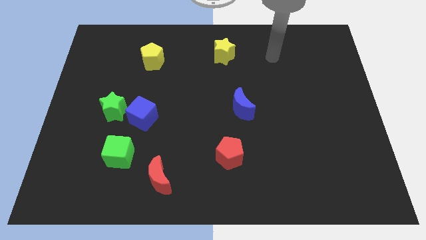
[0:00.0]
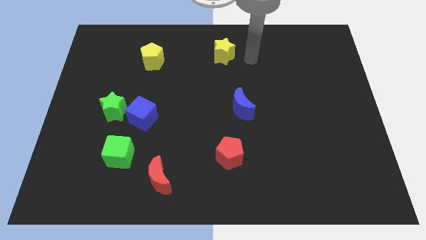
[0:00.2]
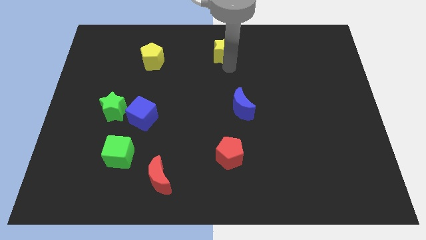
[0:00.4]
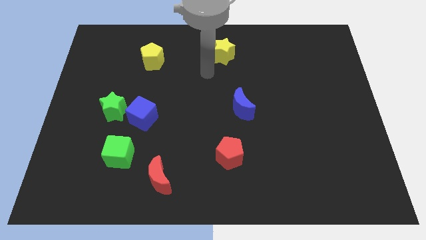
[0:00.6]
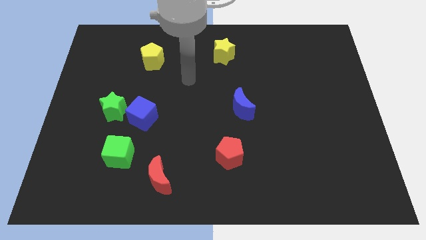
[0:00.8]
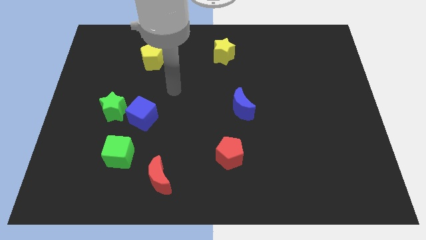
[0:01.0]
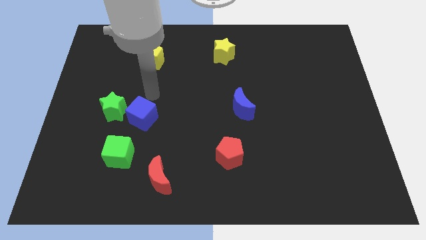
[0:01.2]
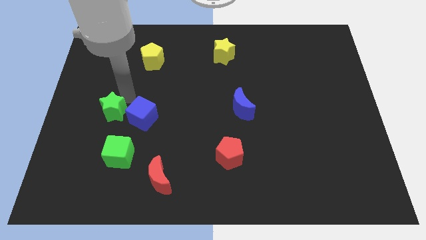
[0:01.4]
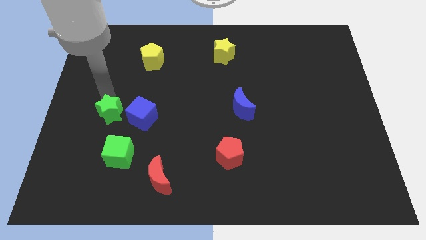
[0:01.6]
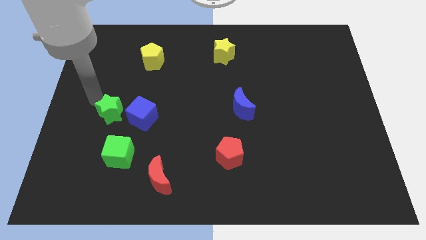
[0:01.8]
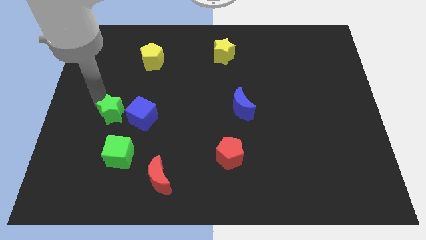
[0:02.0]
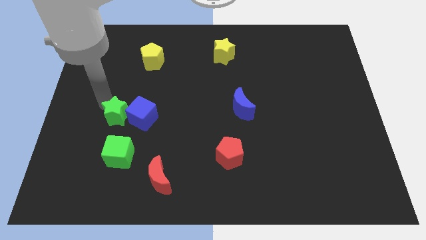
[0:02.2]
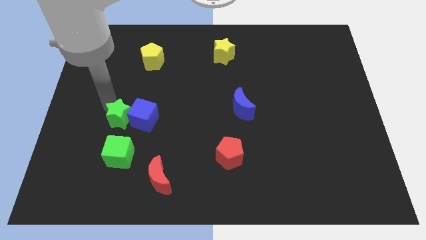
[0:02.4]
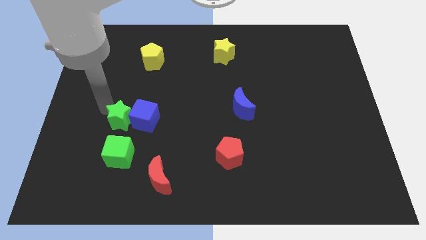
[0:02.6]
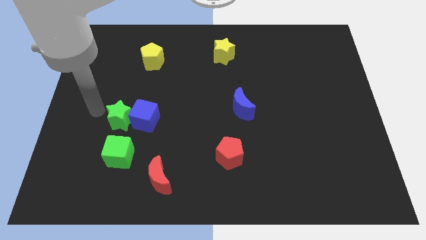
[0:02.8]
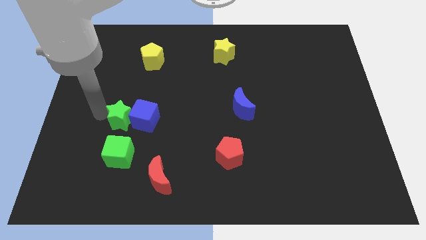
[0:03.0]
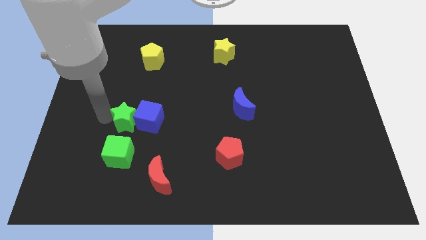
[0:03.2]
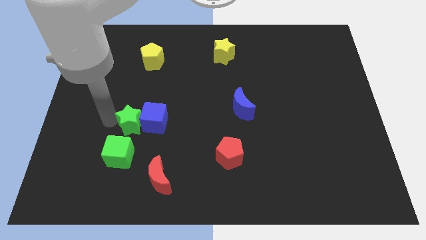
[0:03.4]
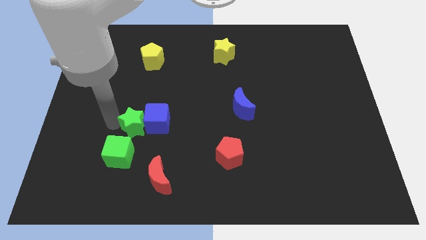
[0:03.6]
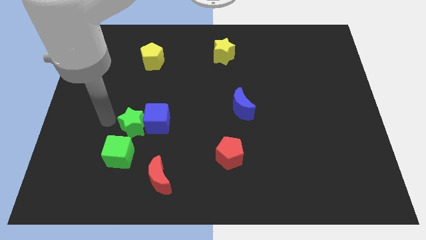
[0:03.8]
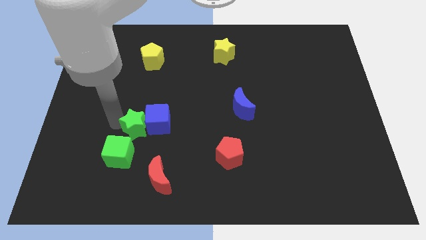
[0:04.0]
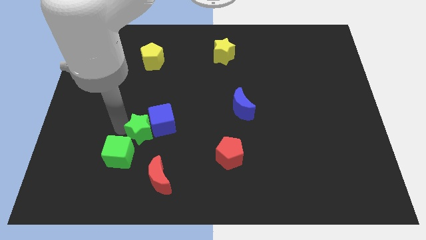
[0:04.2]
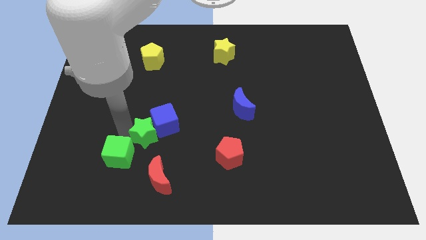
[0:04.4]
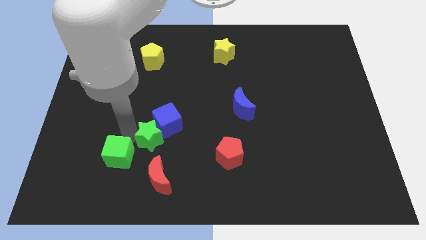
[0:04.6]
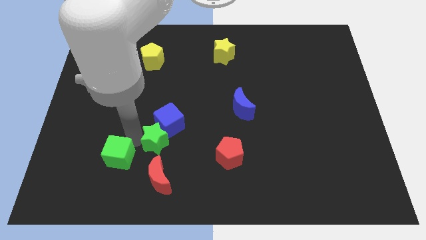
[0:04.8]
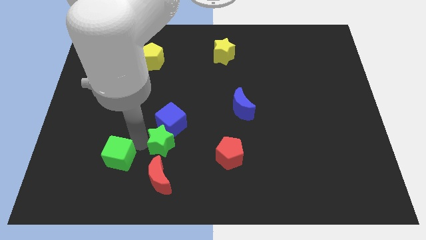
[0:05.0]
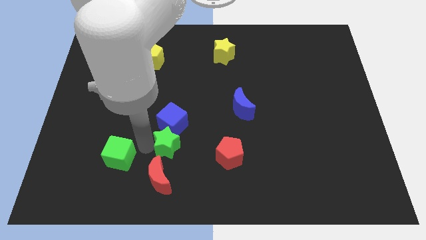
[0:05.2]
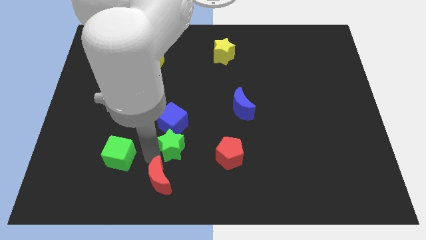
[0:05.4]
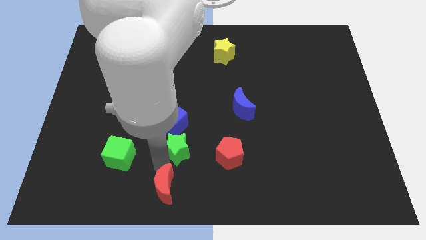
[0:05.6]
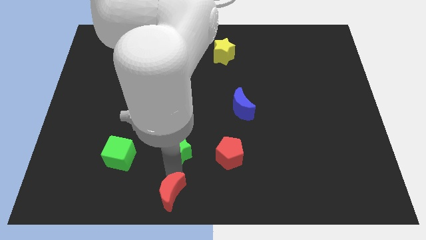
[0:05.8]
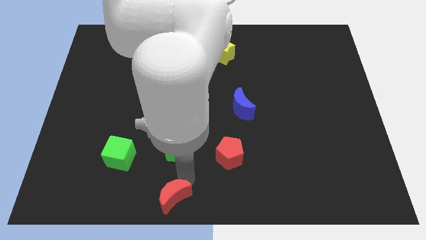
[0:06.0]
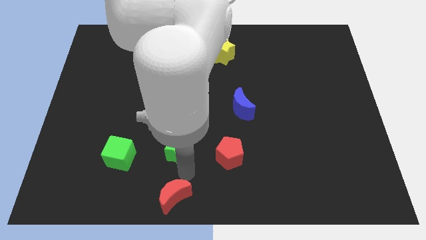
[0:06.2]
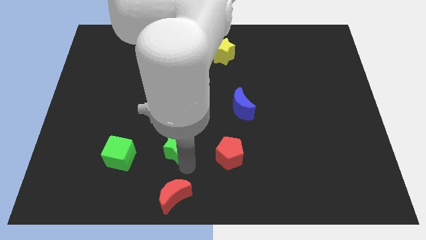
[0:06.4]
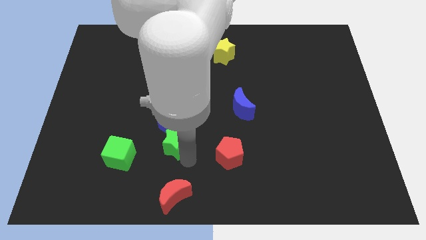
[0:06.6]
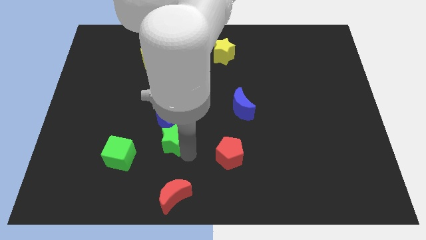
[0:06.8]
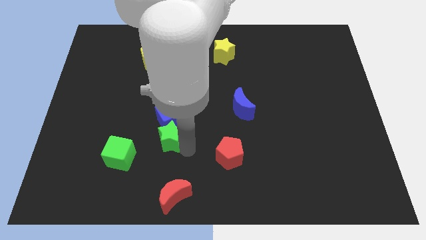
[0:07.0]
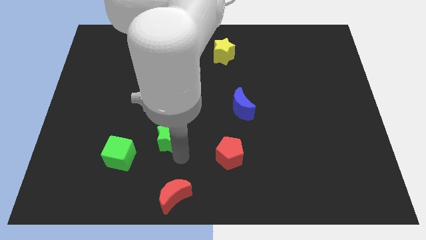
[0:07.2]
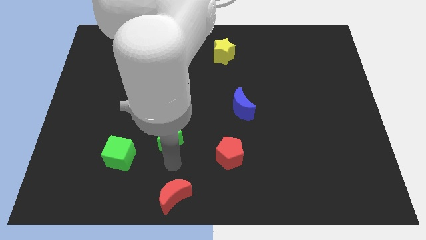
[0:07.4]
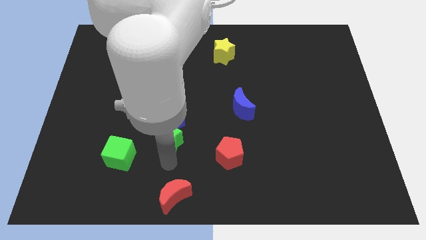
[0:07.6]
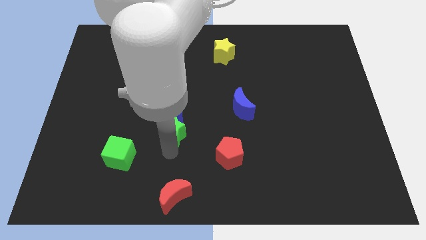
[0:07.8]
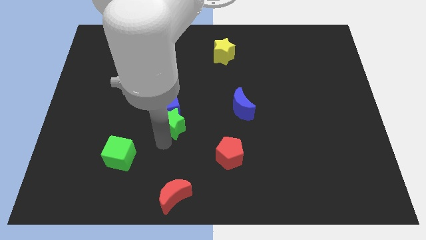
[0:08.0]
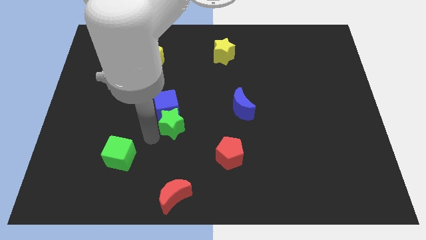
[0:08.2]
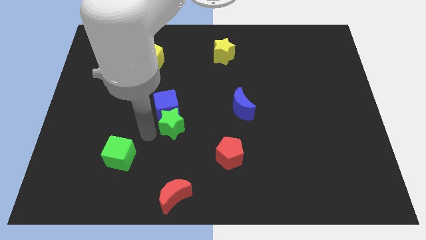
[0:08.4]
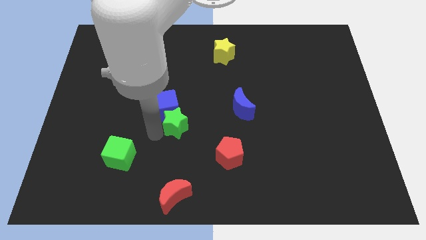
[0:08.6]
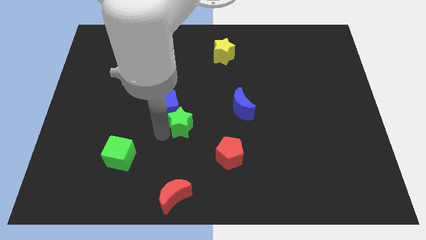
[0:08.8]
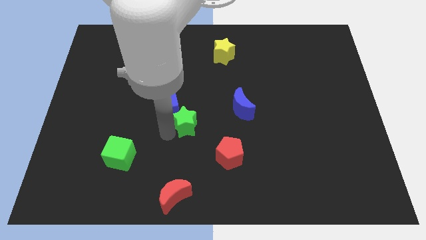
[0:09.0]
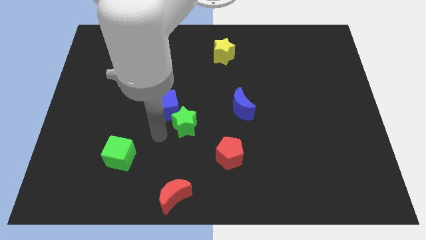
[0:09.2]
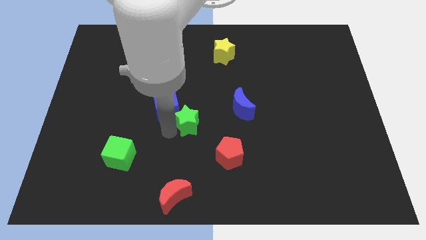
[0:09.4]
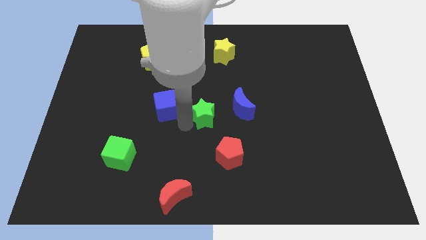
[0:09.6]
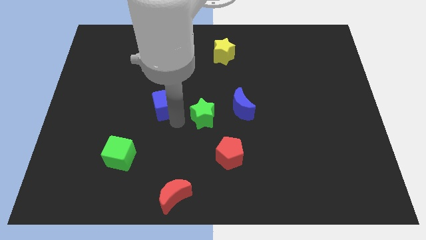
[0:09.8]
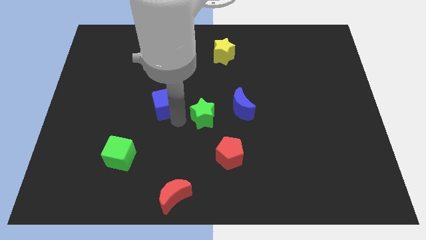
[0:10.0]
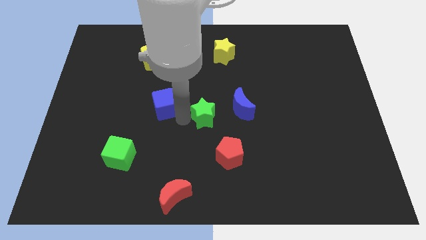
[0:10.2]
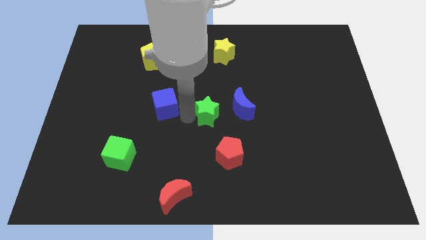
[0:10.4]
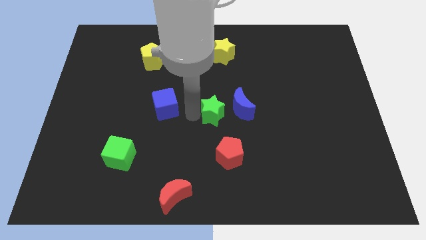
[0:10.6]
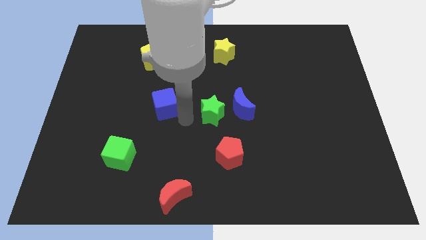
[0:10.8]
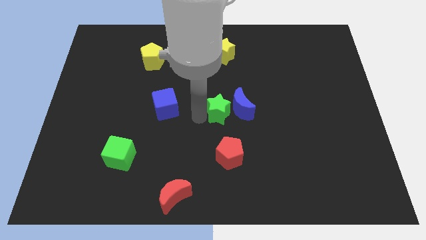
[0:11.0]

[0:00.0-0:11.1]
move the green star next to the blue moon

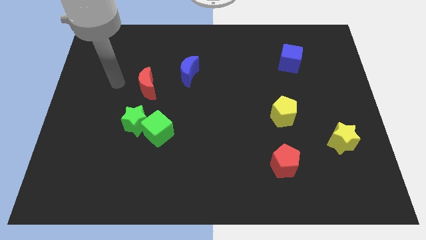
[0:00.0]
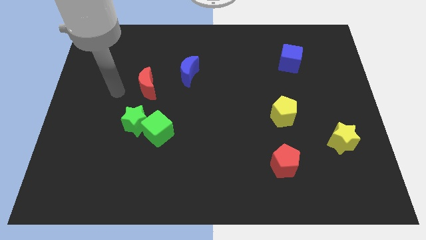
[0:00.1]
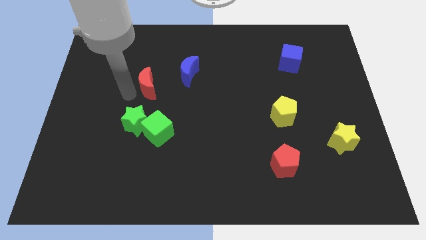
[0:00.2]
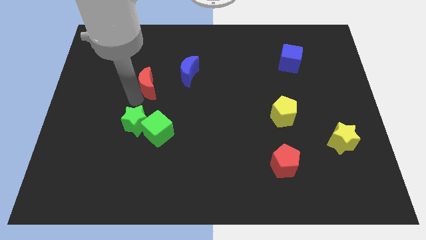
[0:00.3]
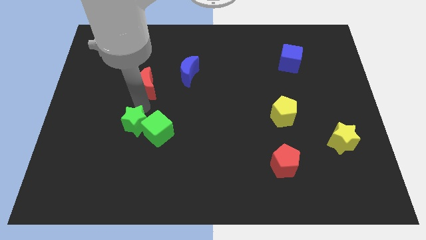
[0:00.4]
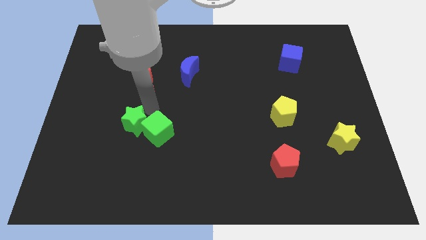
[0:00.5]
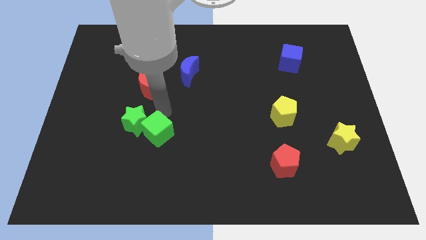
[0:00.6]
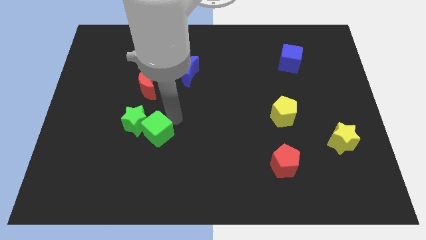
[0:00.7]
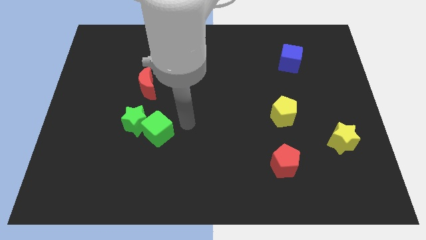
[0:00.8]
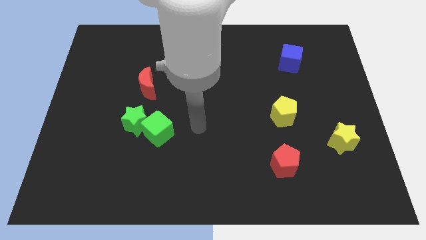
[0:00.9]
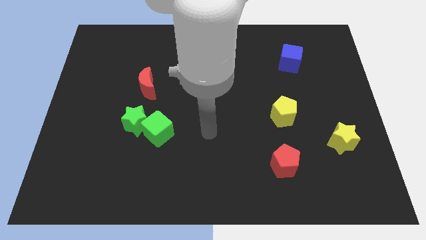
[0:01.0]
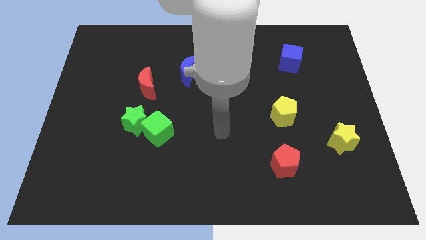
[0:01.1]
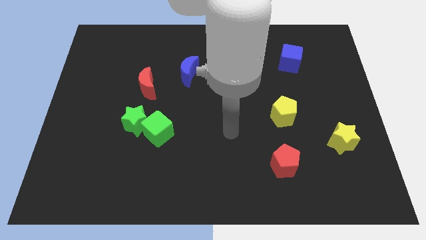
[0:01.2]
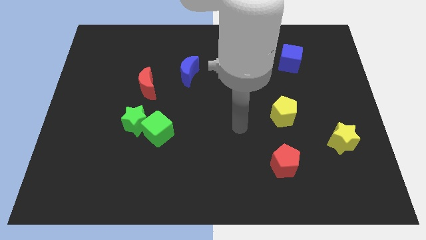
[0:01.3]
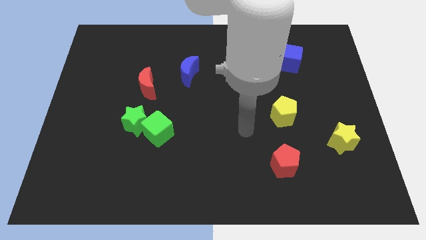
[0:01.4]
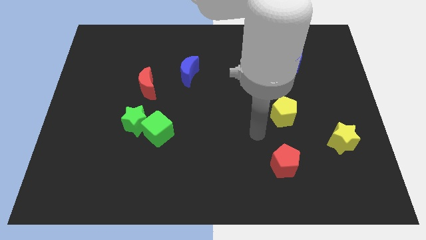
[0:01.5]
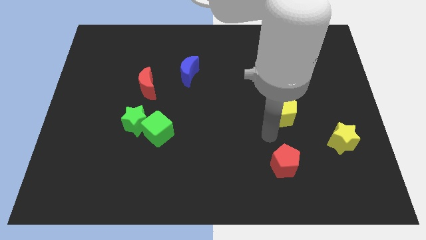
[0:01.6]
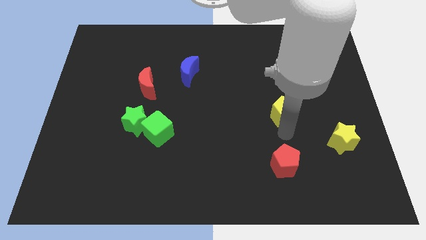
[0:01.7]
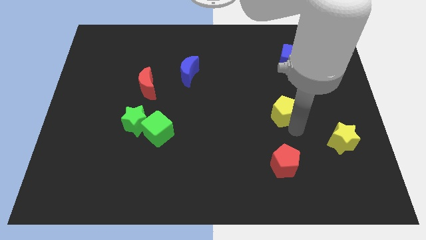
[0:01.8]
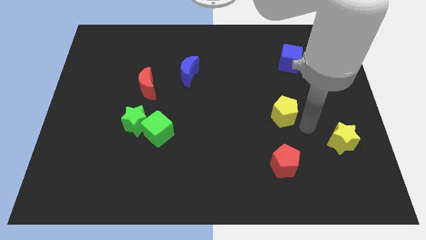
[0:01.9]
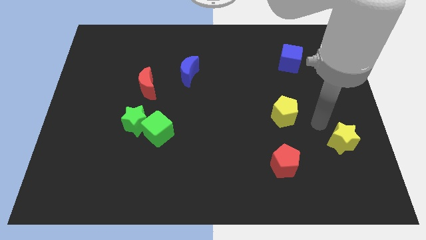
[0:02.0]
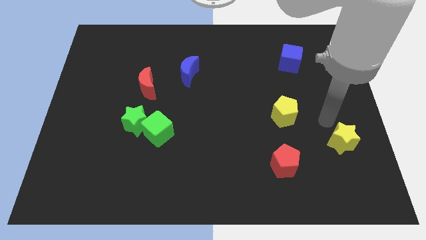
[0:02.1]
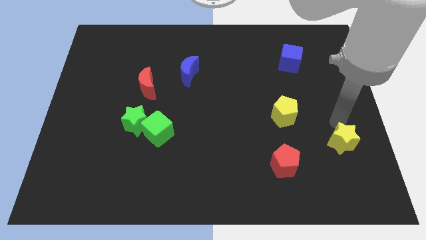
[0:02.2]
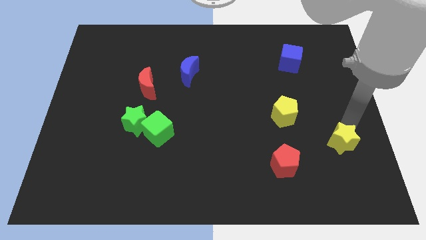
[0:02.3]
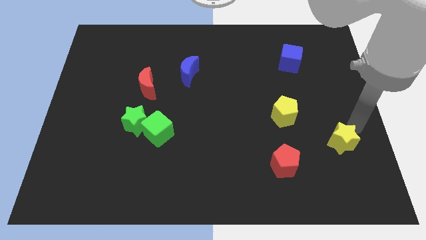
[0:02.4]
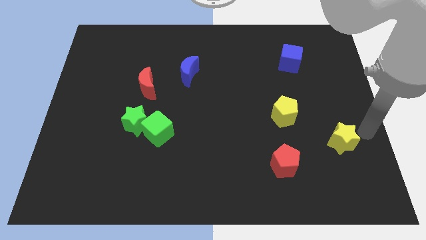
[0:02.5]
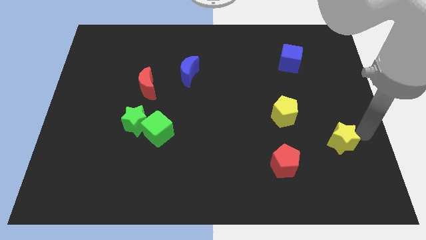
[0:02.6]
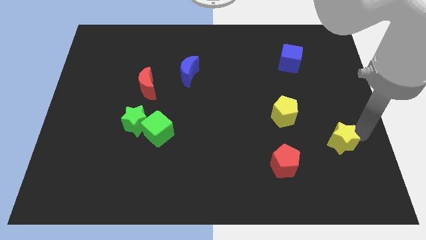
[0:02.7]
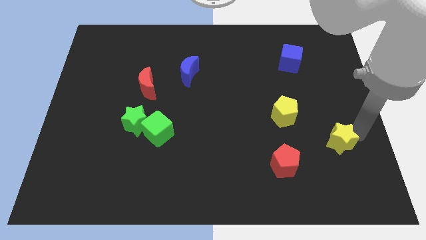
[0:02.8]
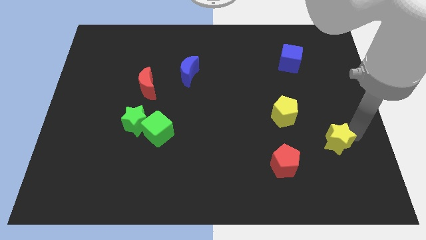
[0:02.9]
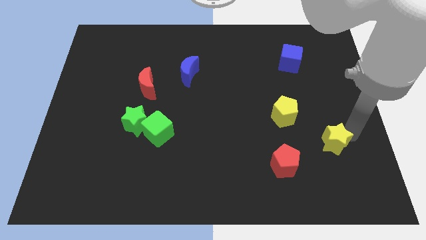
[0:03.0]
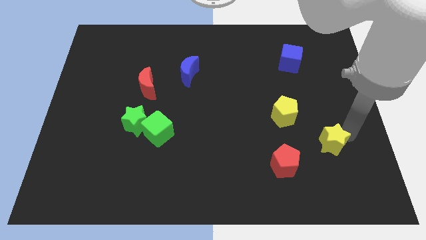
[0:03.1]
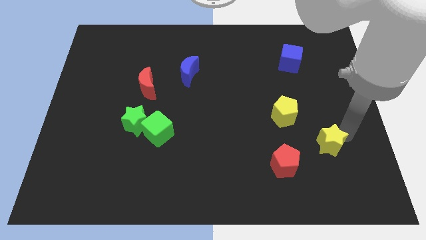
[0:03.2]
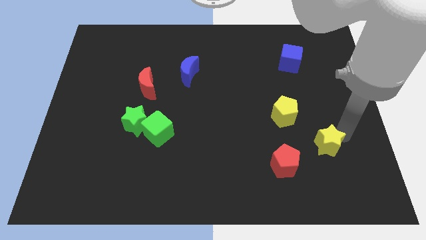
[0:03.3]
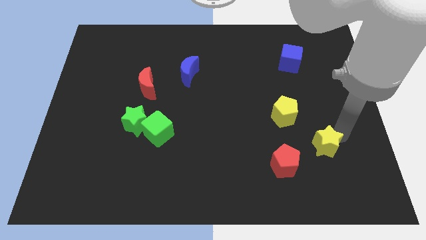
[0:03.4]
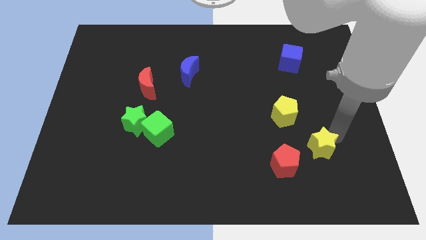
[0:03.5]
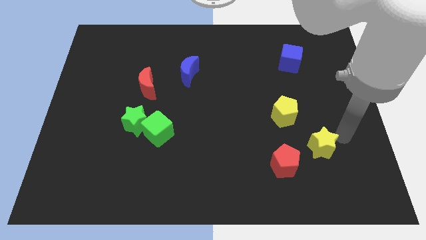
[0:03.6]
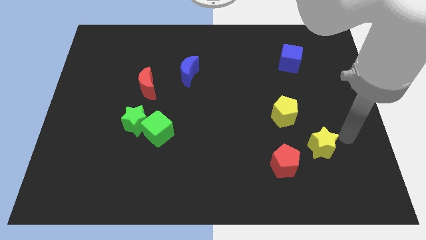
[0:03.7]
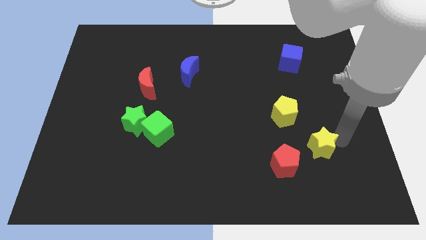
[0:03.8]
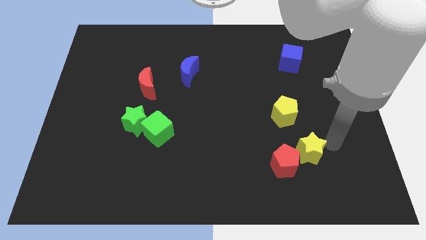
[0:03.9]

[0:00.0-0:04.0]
push the yellow star towards the red pentagon
